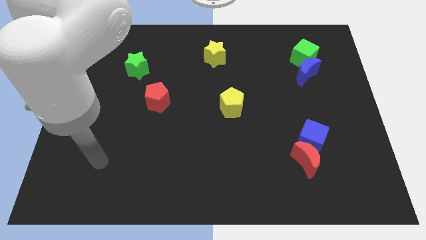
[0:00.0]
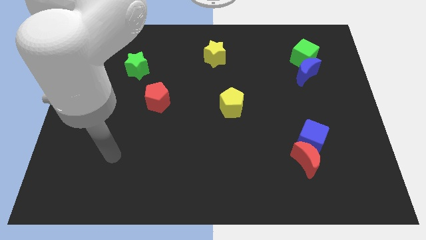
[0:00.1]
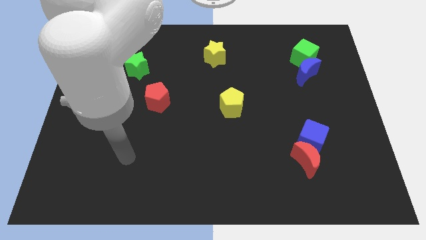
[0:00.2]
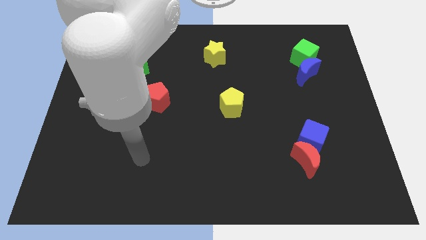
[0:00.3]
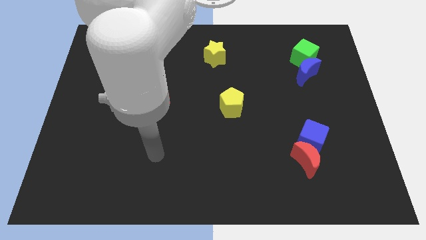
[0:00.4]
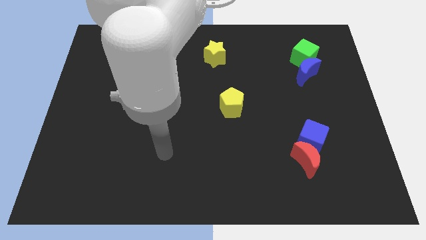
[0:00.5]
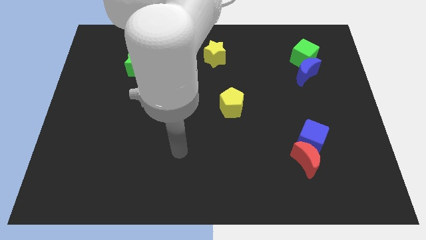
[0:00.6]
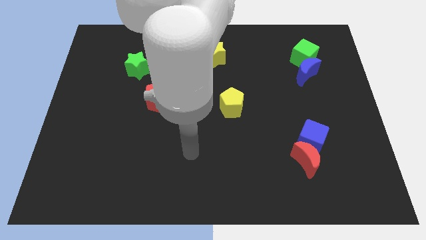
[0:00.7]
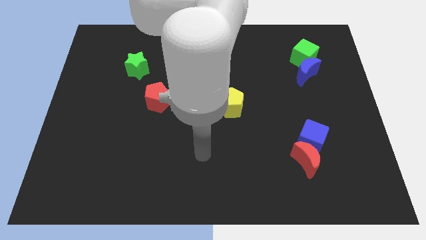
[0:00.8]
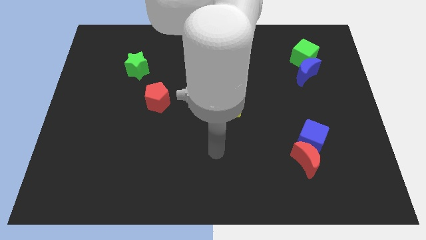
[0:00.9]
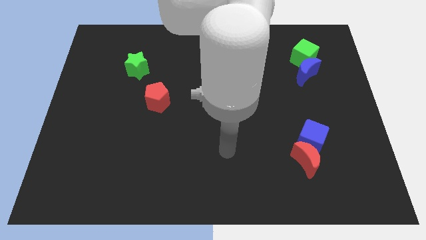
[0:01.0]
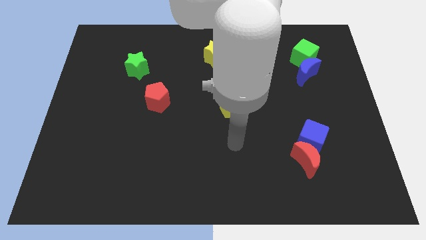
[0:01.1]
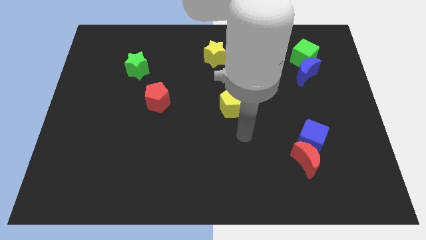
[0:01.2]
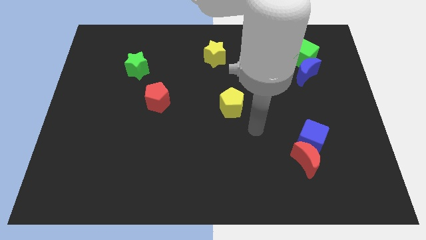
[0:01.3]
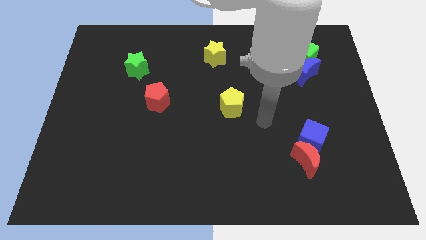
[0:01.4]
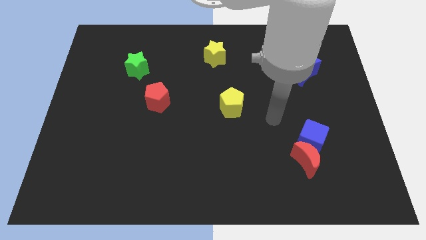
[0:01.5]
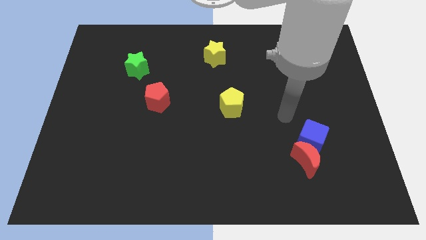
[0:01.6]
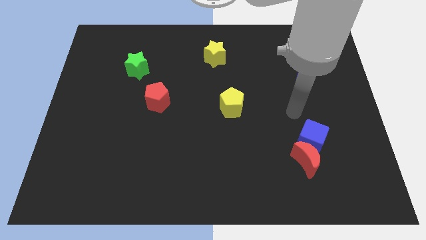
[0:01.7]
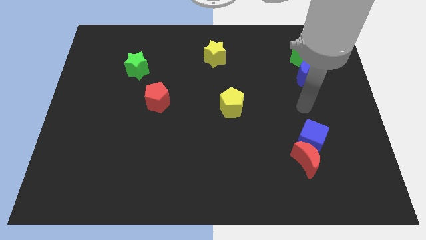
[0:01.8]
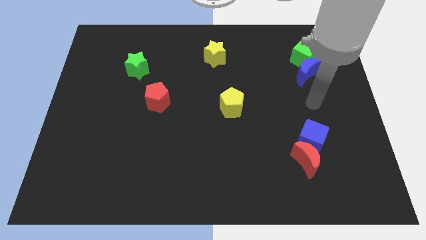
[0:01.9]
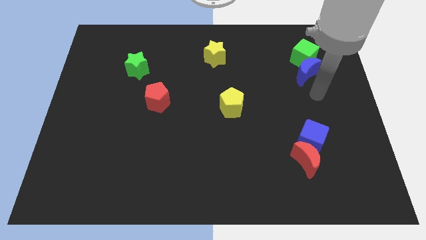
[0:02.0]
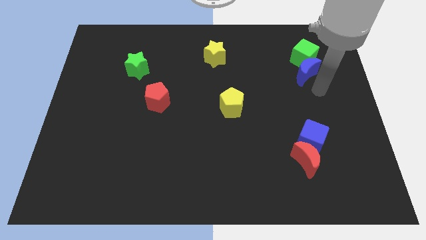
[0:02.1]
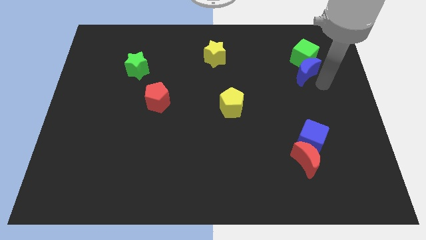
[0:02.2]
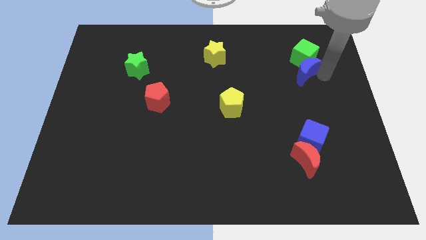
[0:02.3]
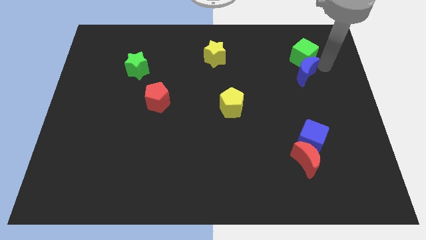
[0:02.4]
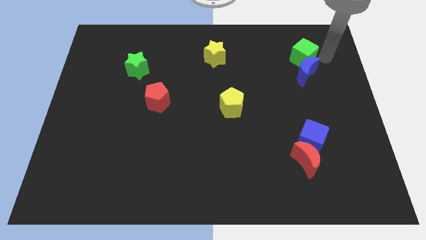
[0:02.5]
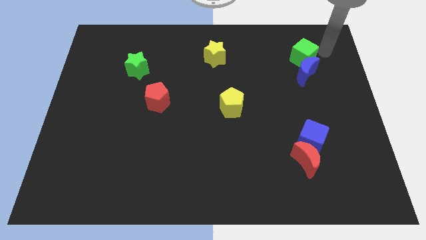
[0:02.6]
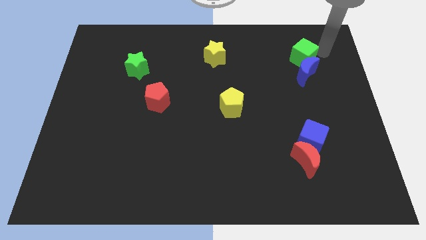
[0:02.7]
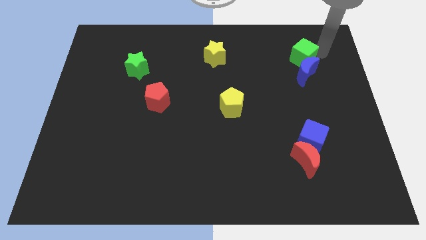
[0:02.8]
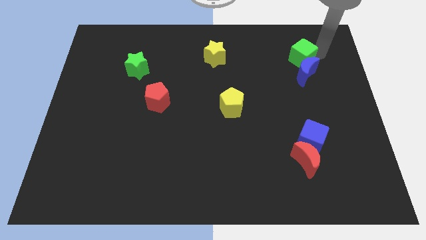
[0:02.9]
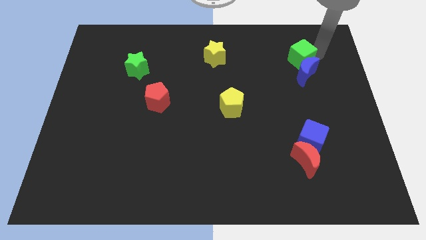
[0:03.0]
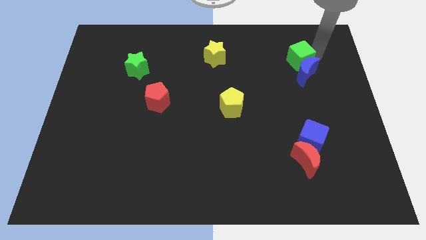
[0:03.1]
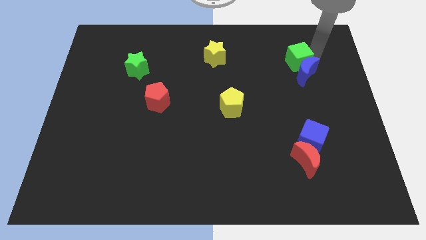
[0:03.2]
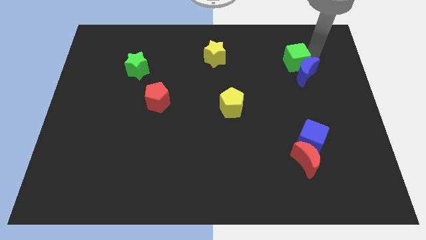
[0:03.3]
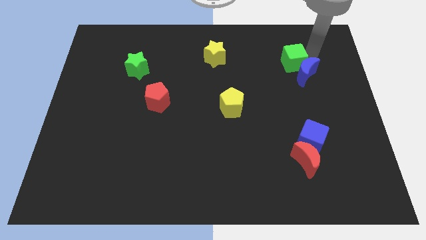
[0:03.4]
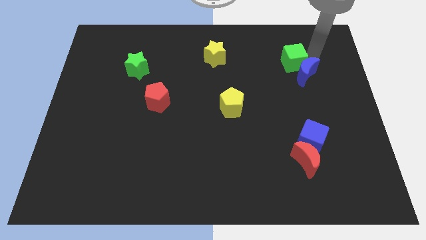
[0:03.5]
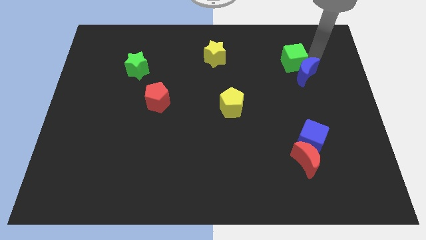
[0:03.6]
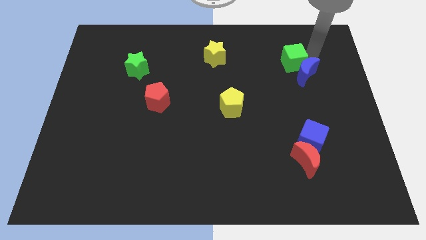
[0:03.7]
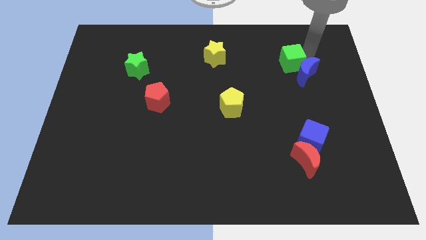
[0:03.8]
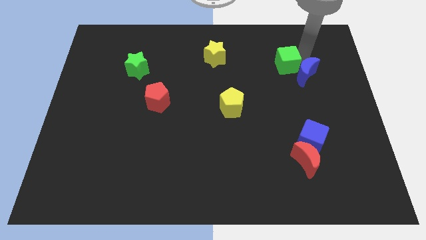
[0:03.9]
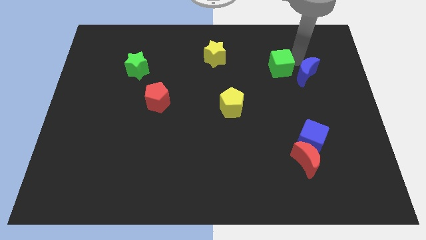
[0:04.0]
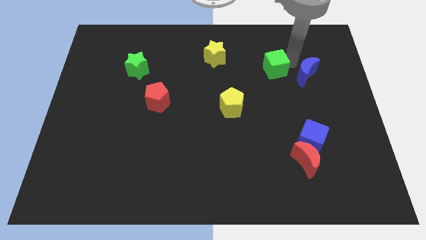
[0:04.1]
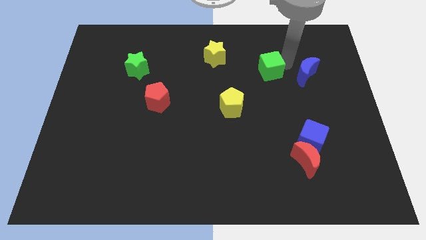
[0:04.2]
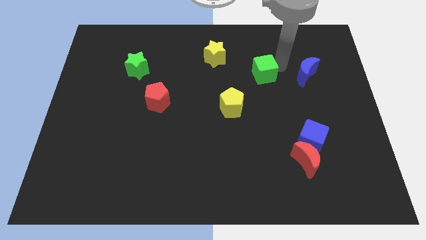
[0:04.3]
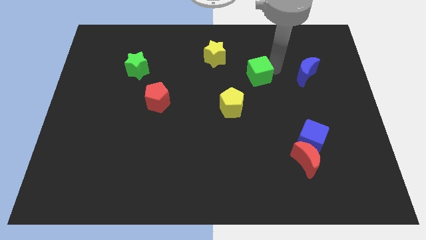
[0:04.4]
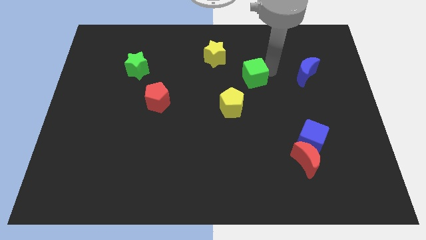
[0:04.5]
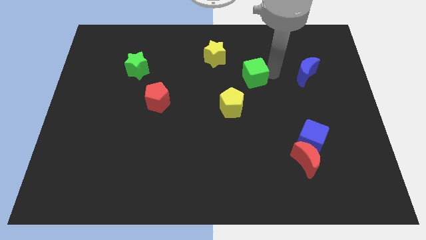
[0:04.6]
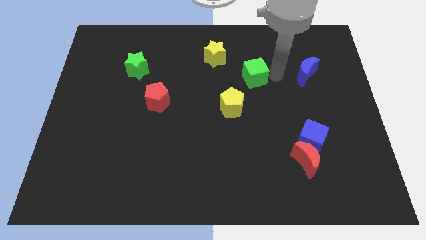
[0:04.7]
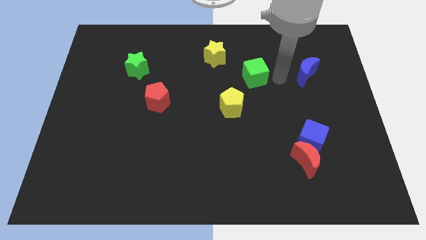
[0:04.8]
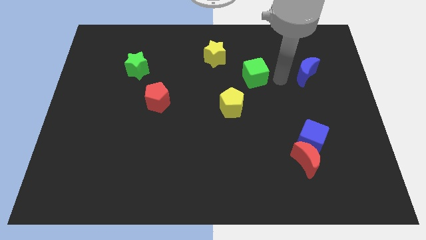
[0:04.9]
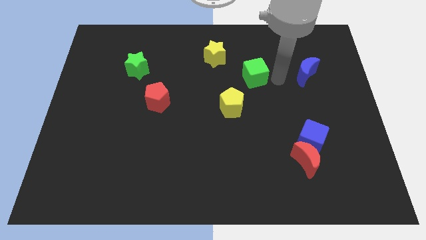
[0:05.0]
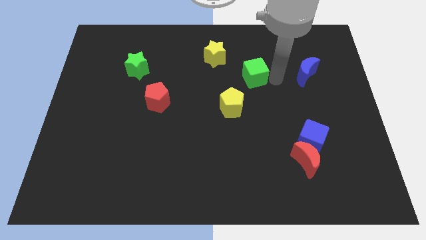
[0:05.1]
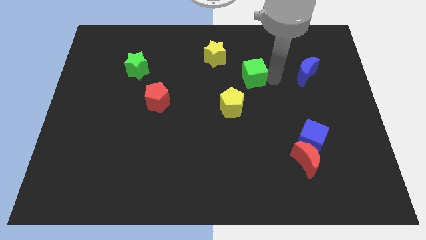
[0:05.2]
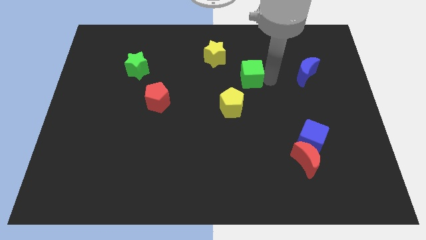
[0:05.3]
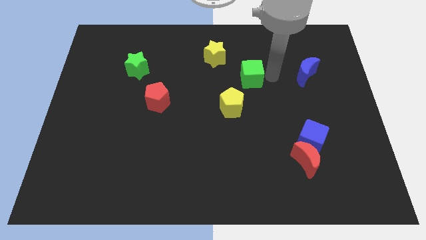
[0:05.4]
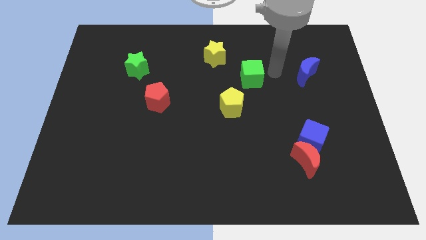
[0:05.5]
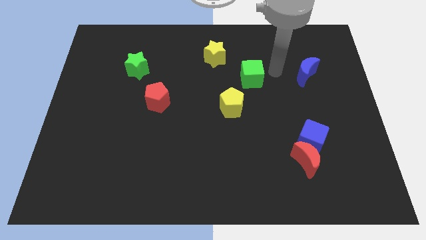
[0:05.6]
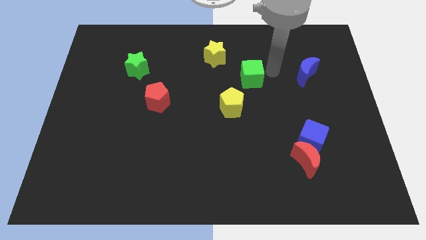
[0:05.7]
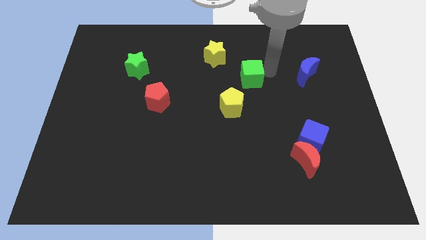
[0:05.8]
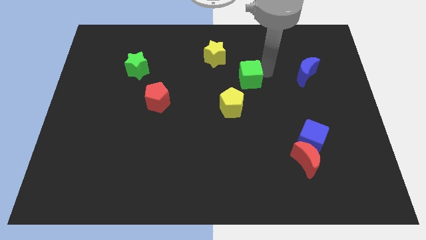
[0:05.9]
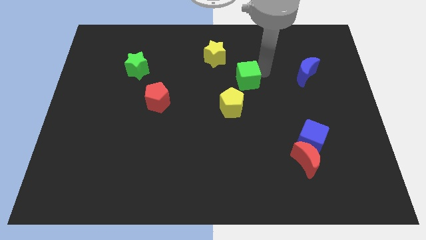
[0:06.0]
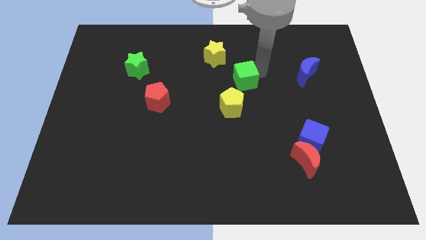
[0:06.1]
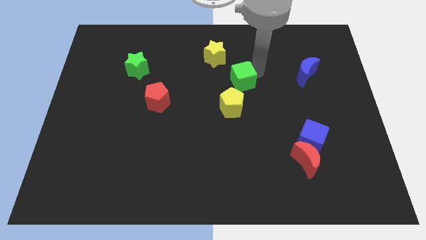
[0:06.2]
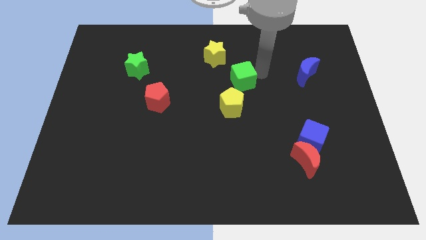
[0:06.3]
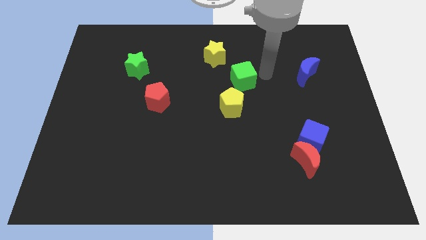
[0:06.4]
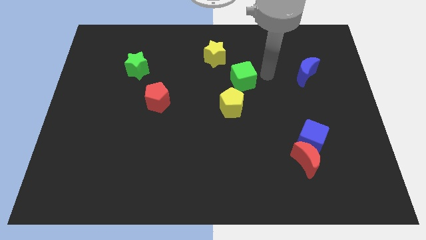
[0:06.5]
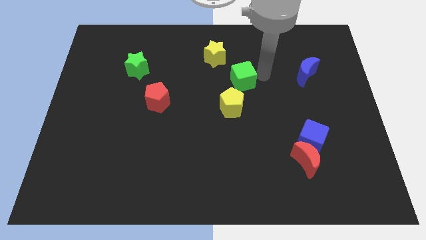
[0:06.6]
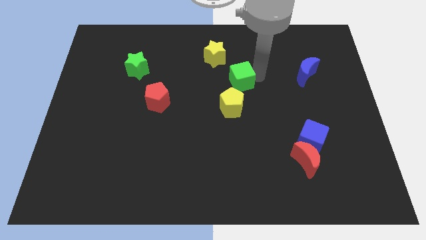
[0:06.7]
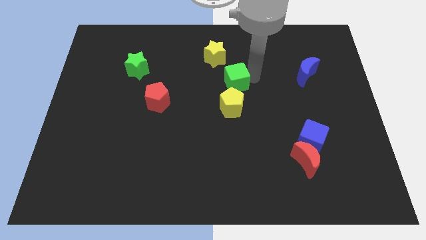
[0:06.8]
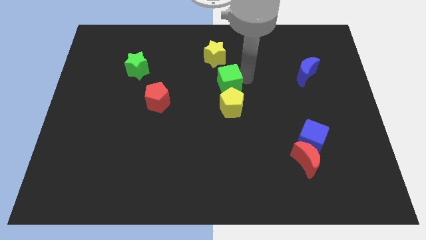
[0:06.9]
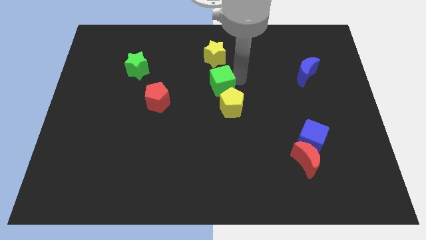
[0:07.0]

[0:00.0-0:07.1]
move the green cube to the top left side of the yellow pentagon

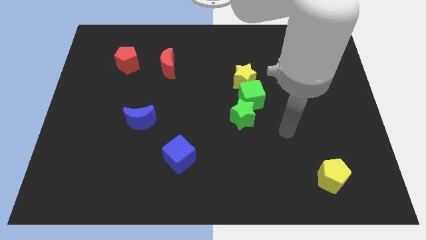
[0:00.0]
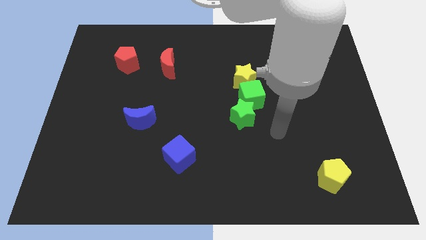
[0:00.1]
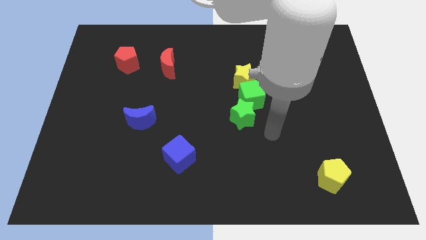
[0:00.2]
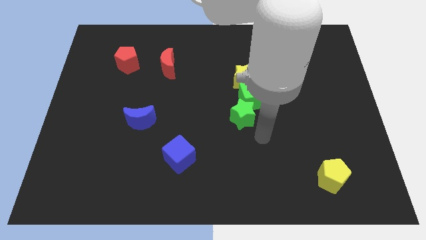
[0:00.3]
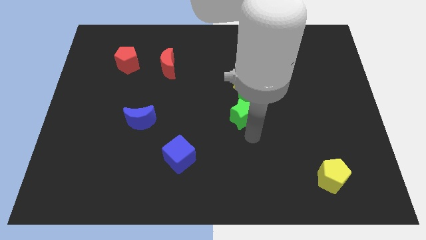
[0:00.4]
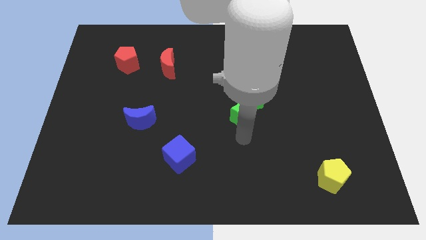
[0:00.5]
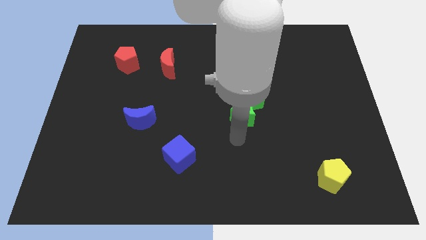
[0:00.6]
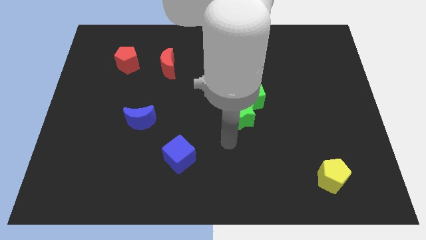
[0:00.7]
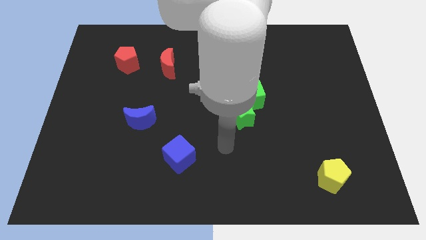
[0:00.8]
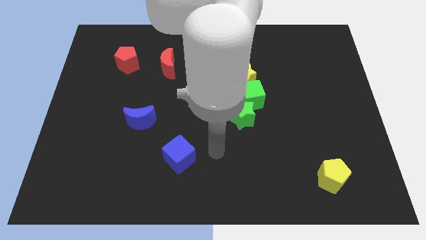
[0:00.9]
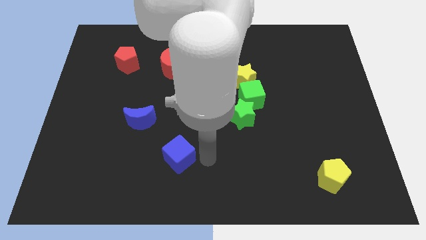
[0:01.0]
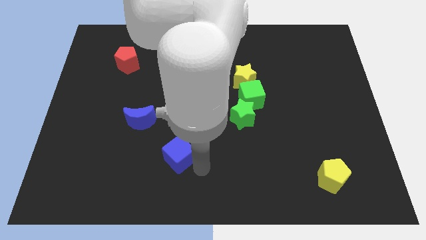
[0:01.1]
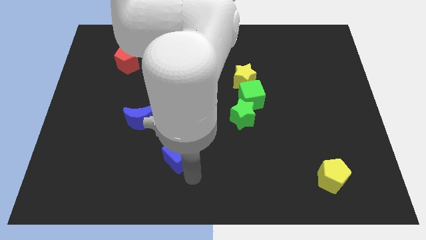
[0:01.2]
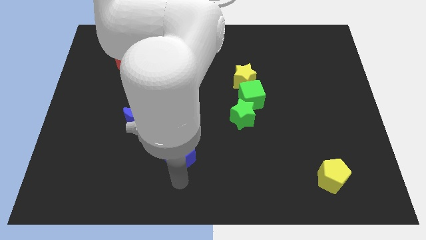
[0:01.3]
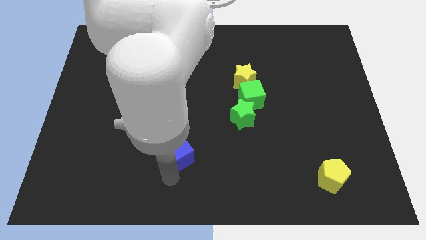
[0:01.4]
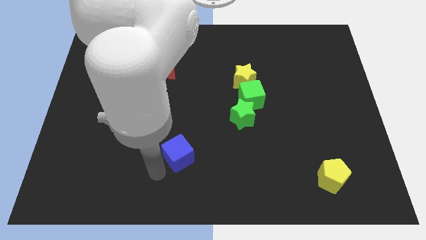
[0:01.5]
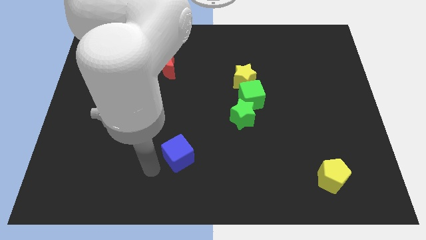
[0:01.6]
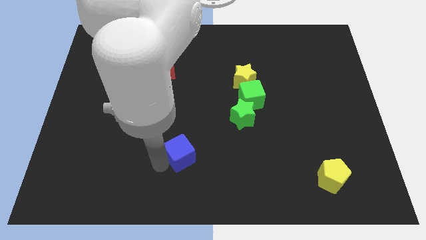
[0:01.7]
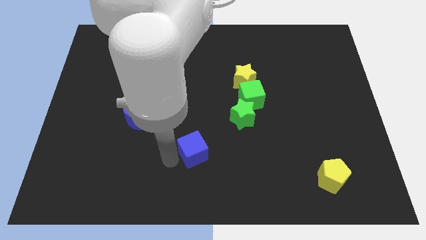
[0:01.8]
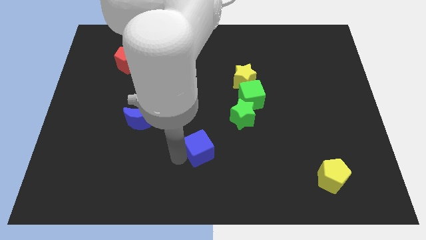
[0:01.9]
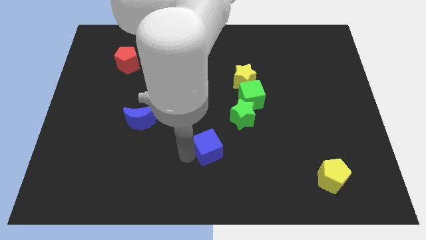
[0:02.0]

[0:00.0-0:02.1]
push the blue cube diagonally down and to the left of the green star
